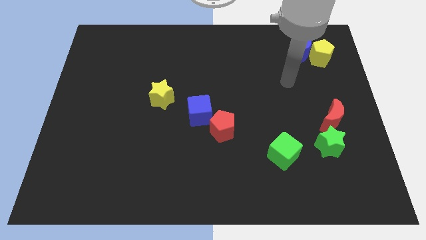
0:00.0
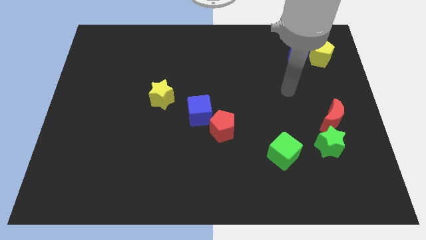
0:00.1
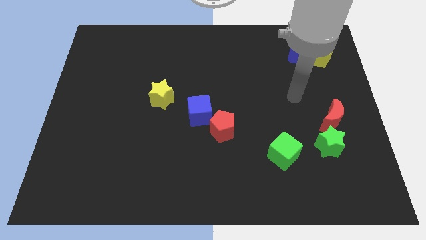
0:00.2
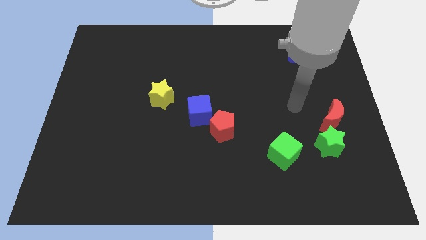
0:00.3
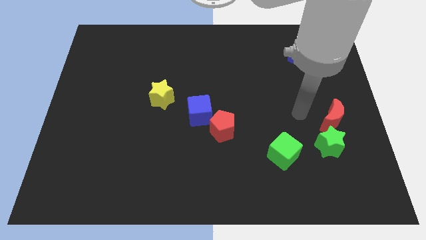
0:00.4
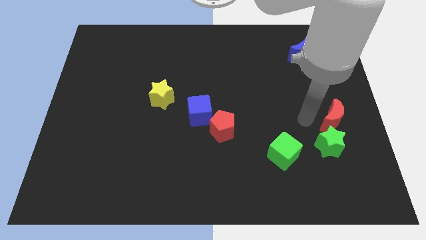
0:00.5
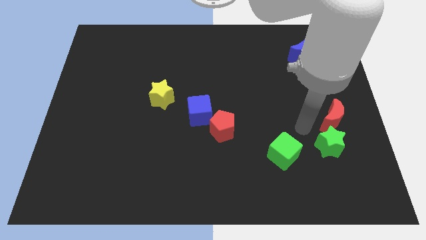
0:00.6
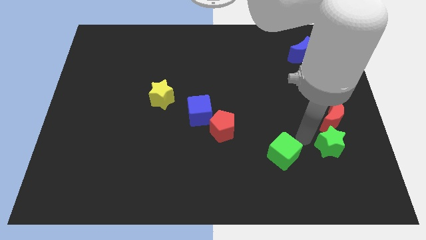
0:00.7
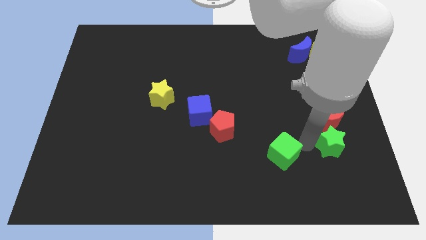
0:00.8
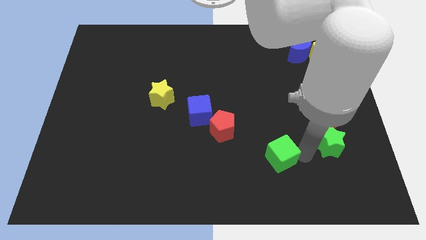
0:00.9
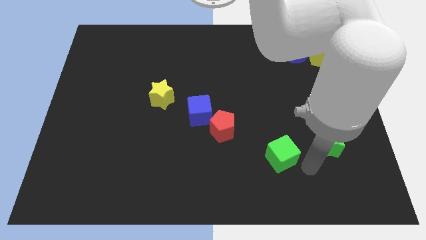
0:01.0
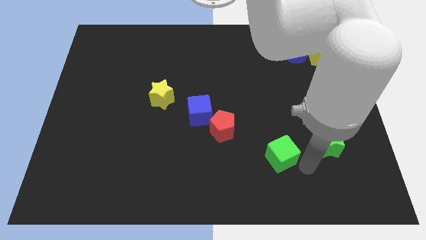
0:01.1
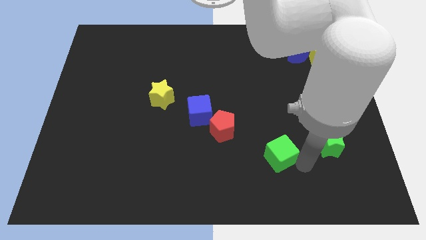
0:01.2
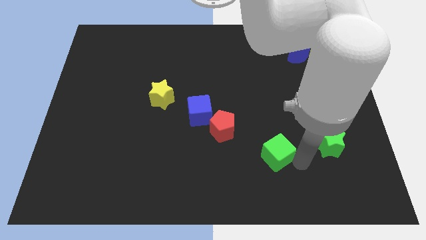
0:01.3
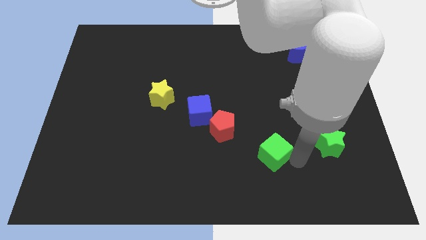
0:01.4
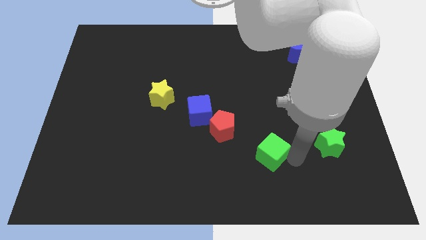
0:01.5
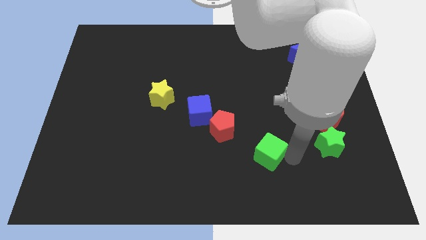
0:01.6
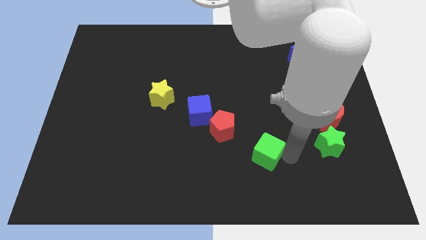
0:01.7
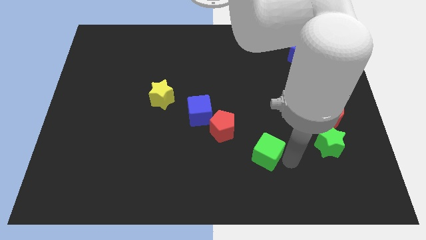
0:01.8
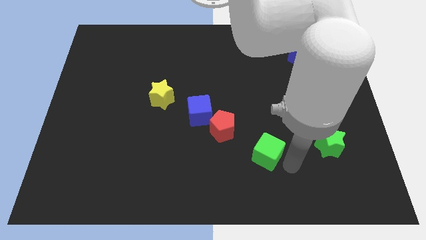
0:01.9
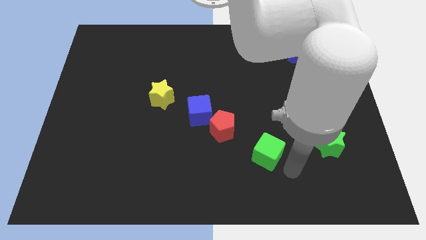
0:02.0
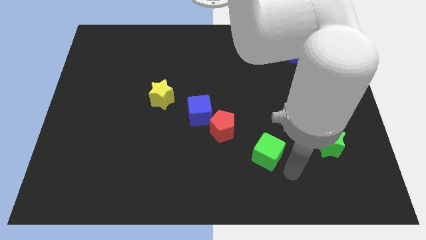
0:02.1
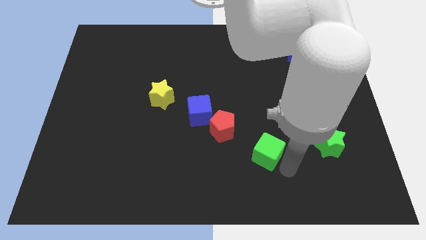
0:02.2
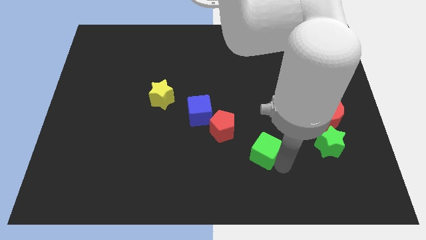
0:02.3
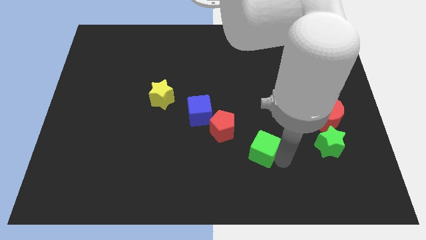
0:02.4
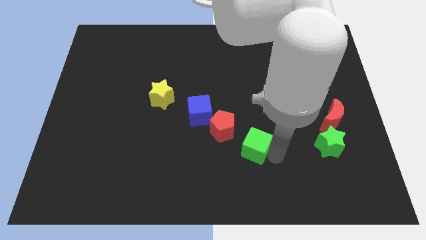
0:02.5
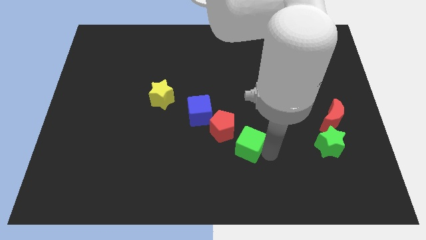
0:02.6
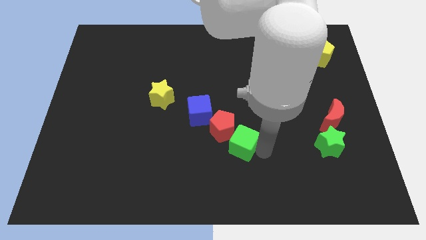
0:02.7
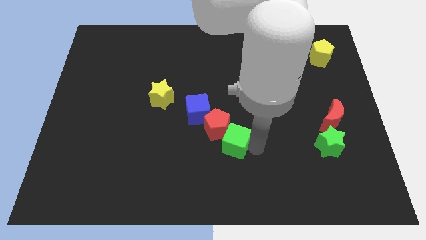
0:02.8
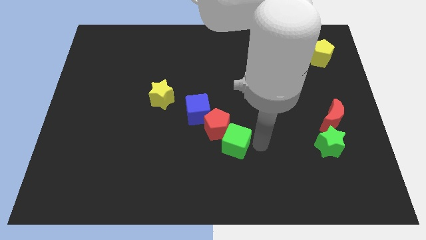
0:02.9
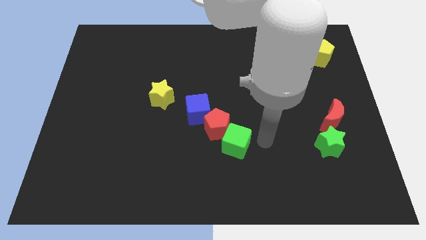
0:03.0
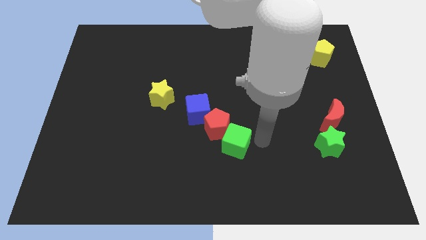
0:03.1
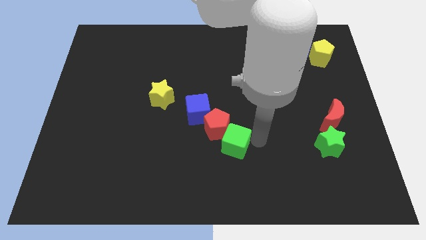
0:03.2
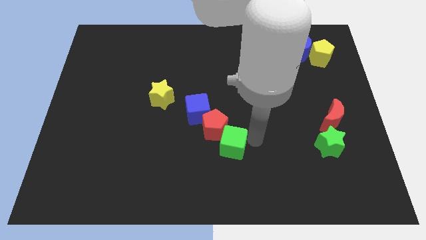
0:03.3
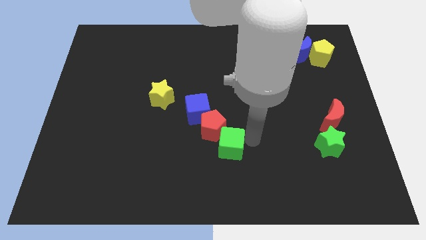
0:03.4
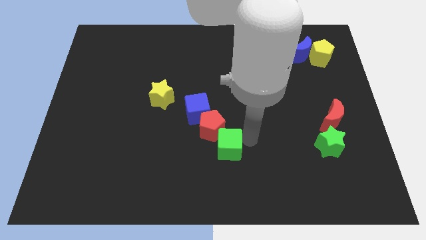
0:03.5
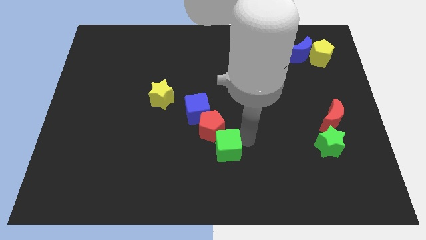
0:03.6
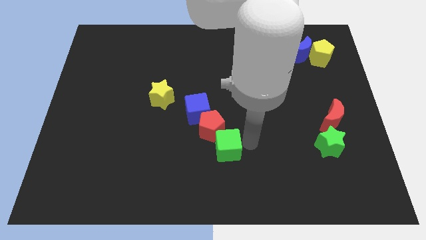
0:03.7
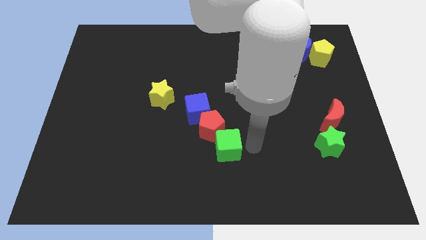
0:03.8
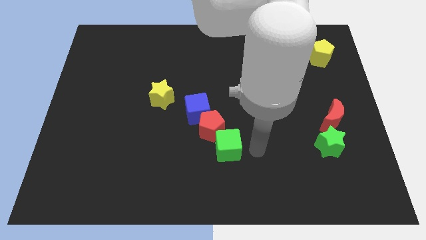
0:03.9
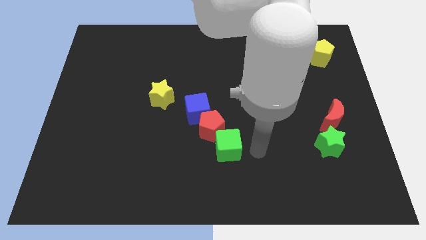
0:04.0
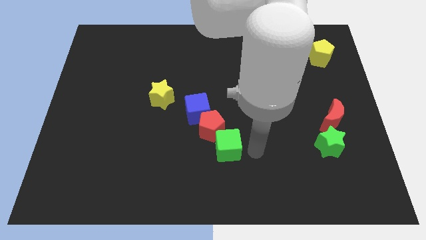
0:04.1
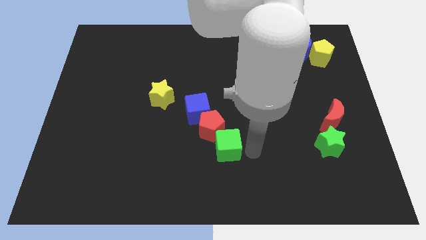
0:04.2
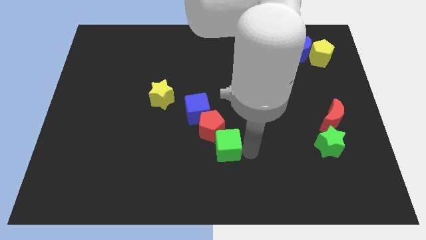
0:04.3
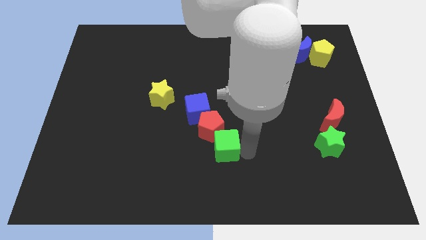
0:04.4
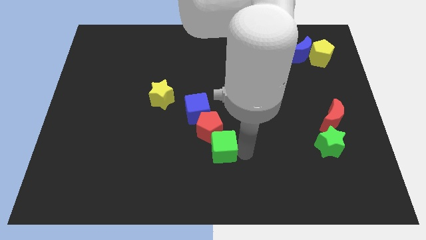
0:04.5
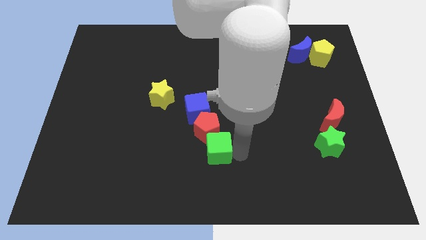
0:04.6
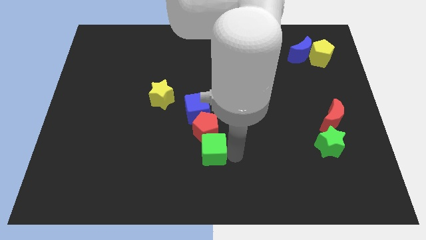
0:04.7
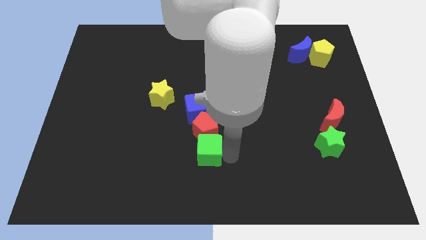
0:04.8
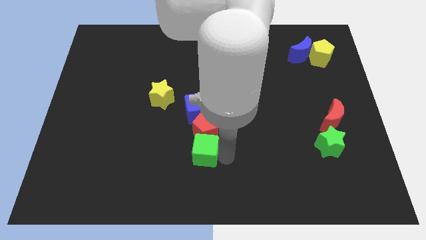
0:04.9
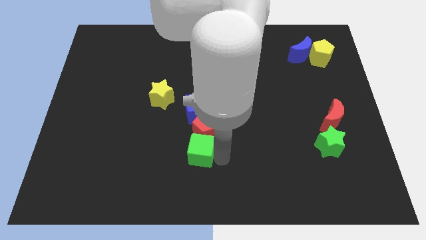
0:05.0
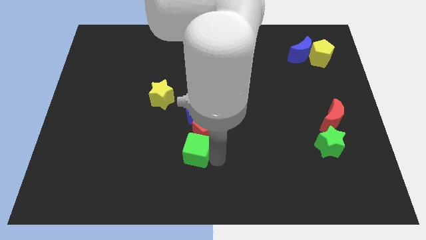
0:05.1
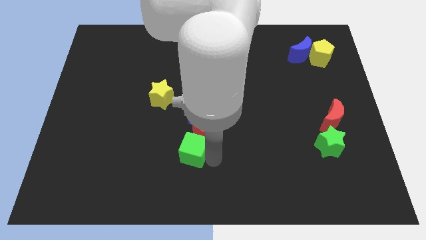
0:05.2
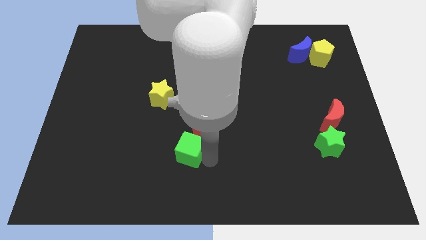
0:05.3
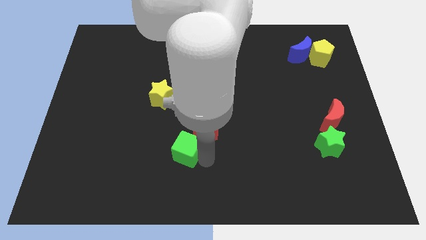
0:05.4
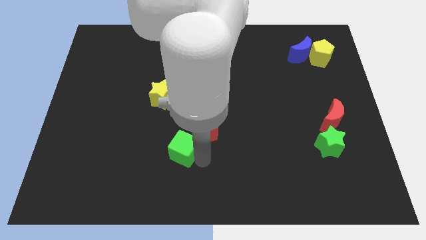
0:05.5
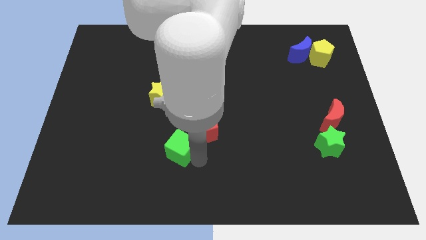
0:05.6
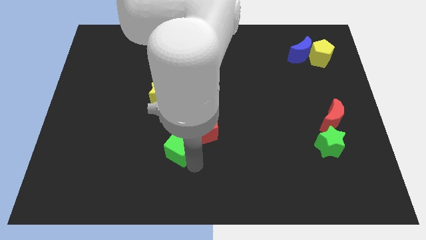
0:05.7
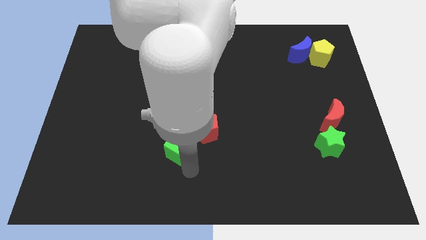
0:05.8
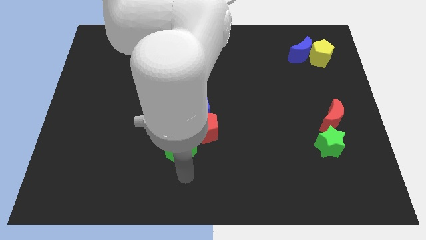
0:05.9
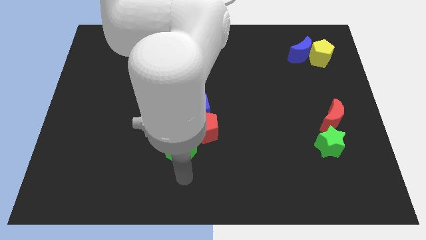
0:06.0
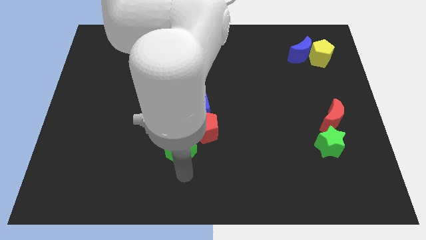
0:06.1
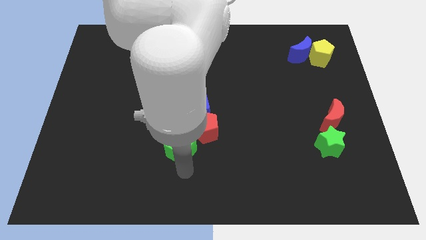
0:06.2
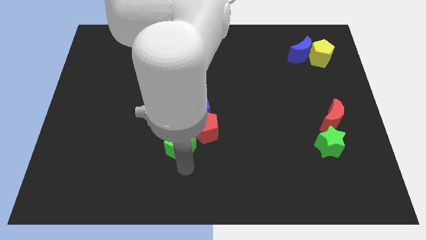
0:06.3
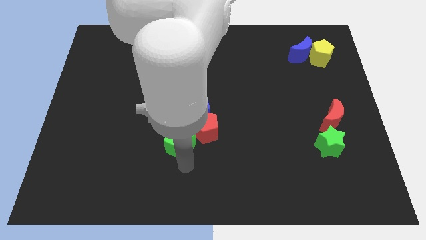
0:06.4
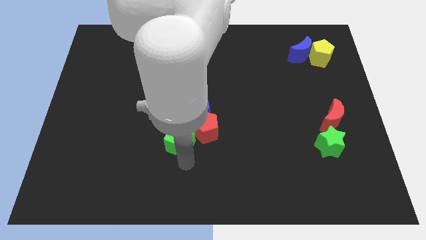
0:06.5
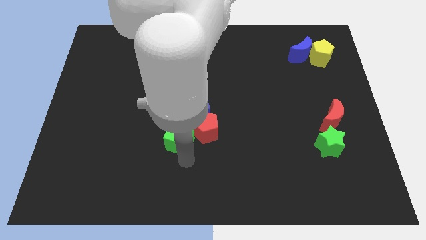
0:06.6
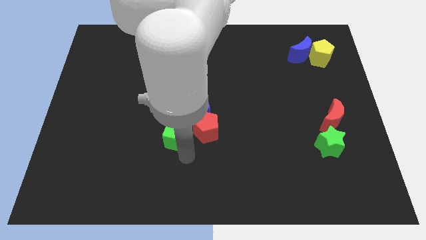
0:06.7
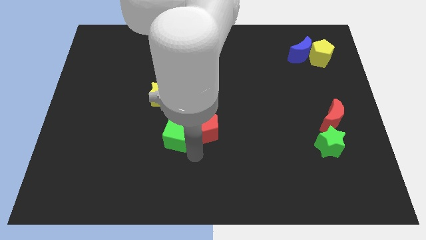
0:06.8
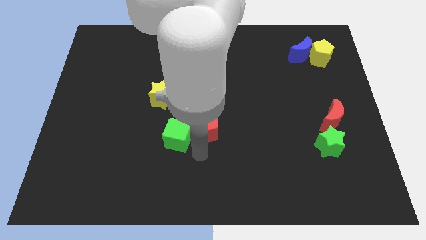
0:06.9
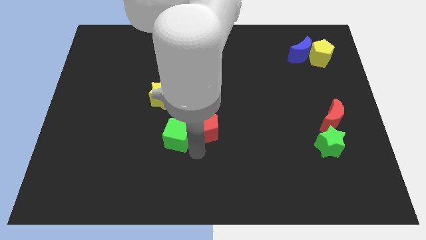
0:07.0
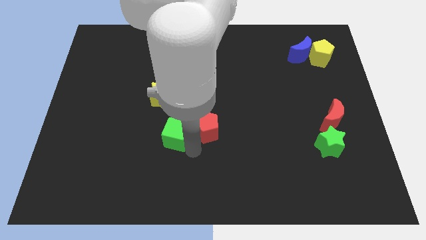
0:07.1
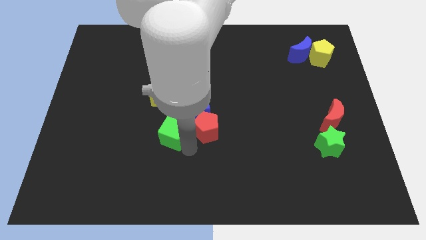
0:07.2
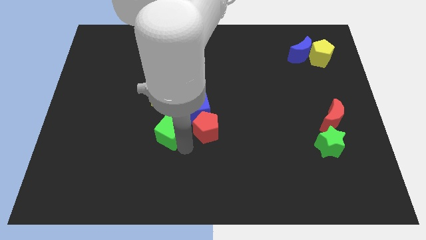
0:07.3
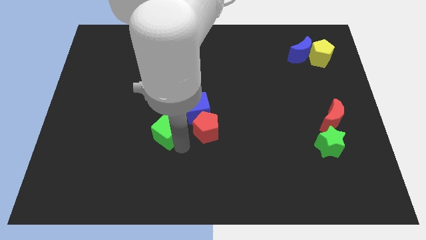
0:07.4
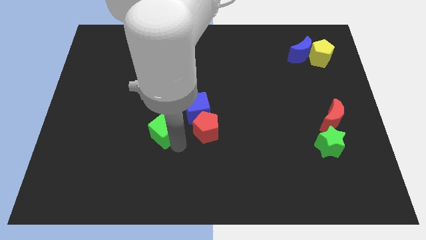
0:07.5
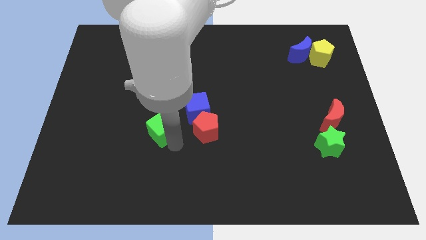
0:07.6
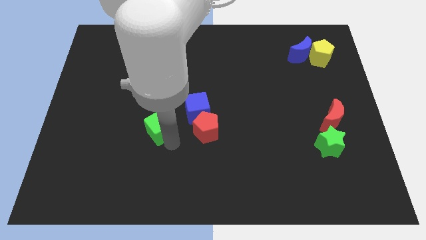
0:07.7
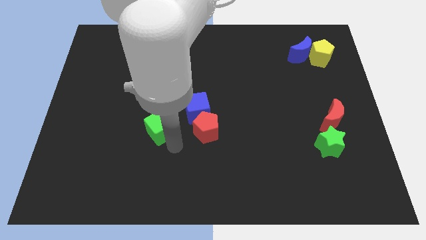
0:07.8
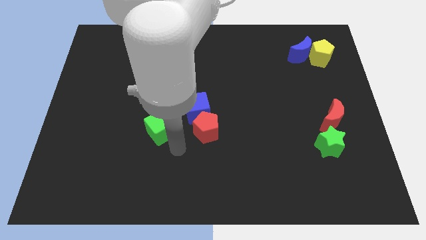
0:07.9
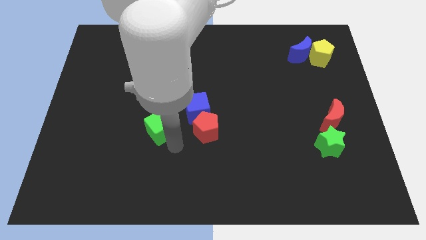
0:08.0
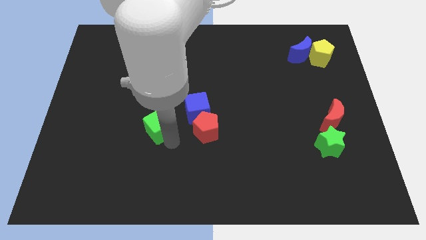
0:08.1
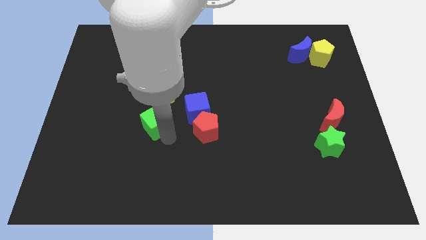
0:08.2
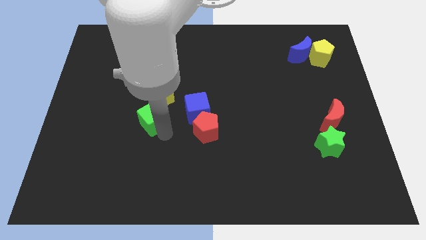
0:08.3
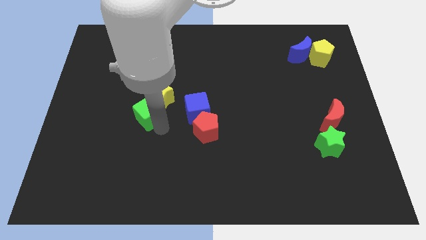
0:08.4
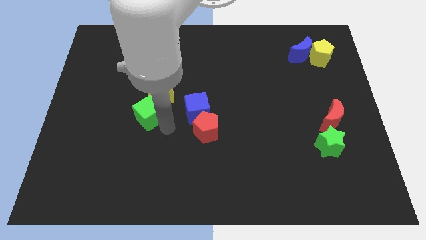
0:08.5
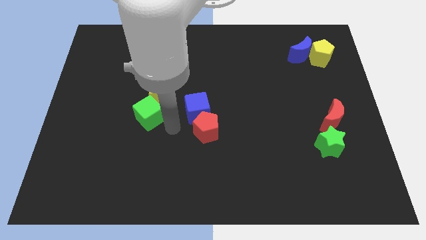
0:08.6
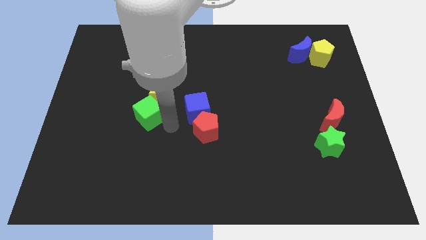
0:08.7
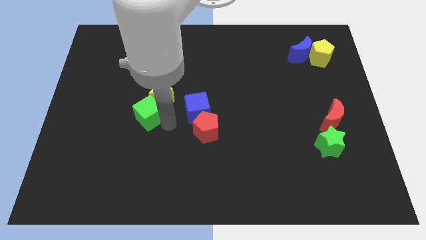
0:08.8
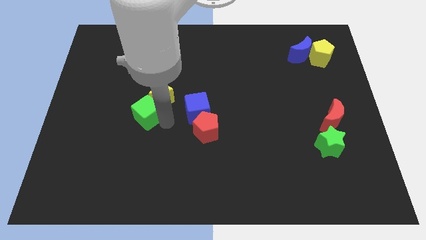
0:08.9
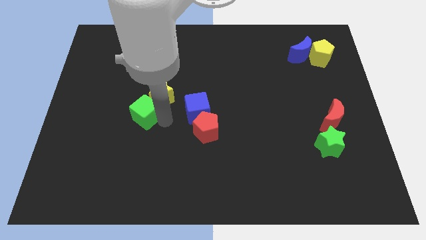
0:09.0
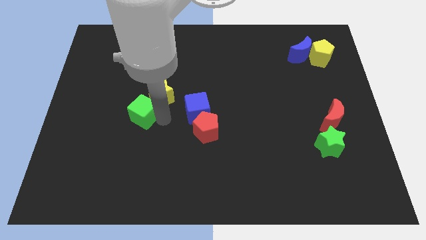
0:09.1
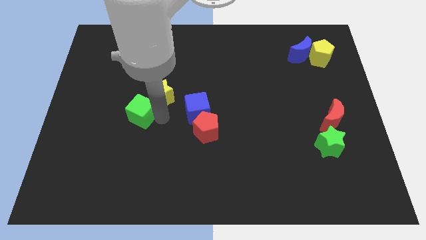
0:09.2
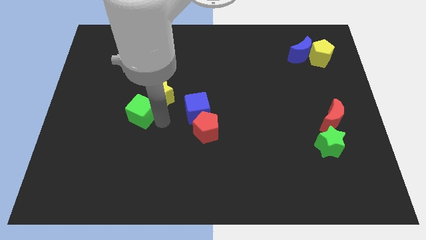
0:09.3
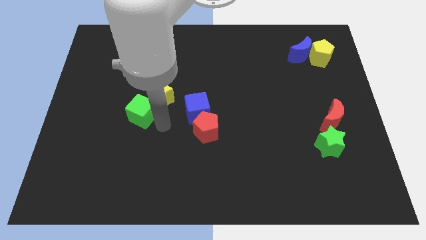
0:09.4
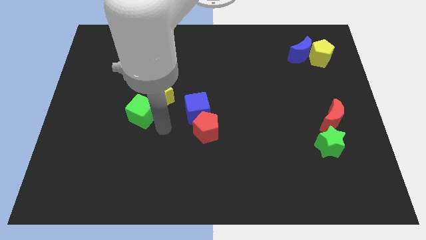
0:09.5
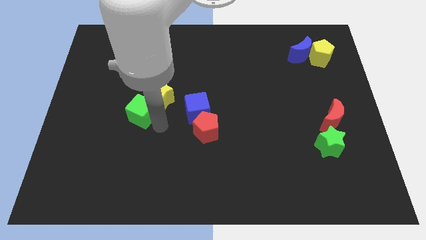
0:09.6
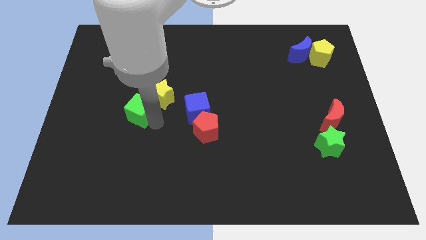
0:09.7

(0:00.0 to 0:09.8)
push the green cube to the left of the yellow star
